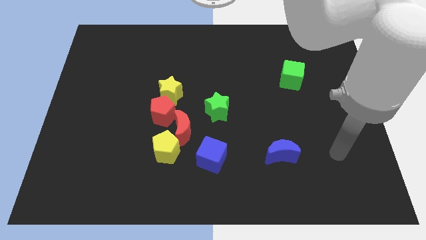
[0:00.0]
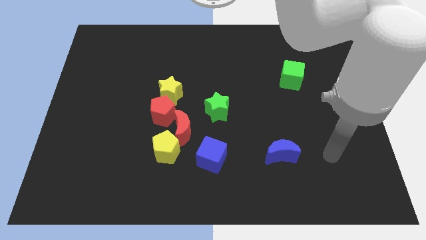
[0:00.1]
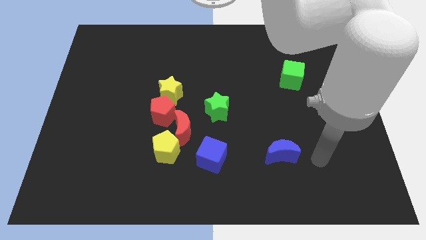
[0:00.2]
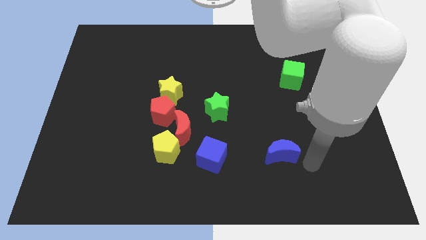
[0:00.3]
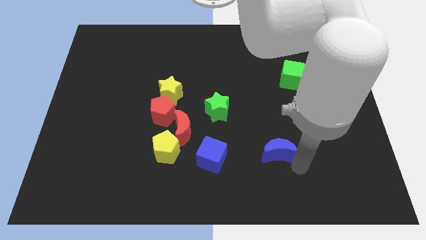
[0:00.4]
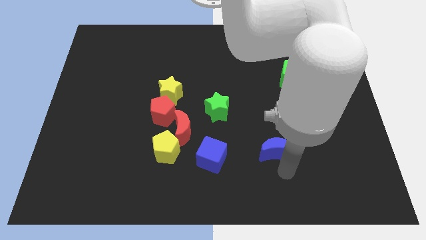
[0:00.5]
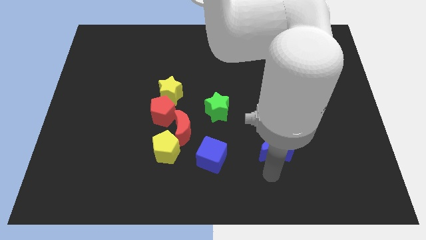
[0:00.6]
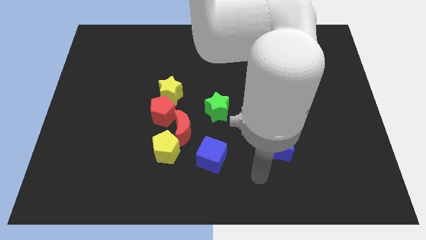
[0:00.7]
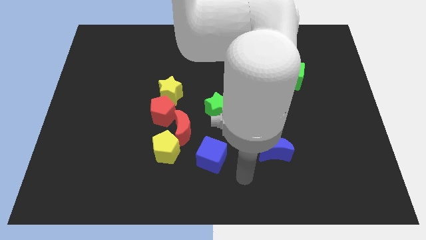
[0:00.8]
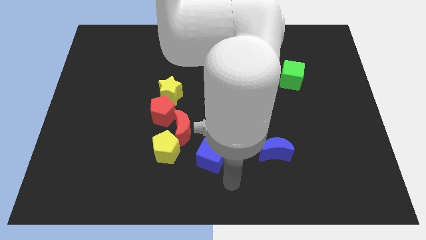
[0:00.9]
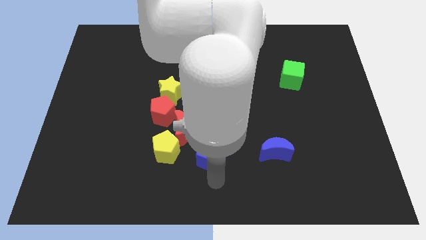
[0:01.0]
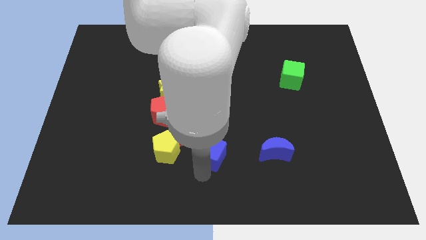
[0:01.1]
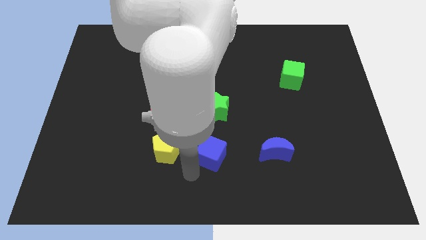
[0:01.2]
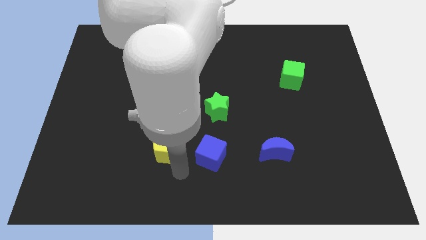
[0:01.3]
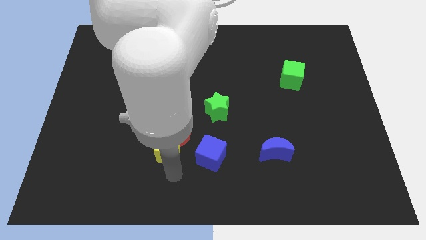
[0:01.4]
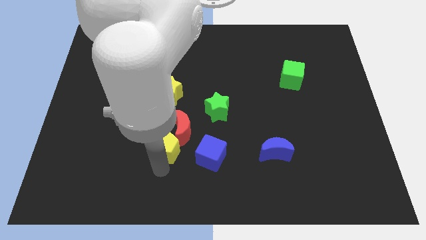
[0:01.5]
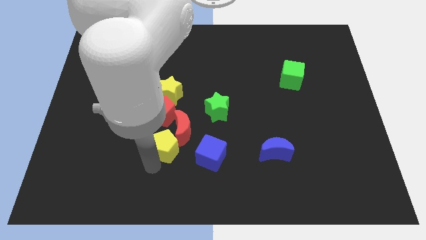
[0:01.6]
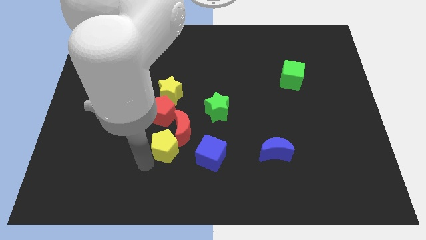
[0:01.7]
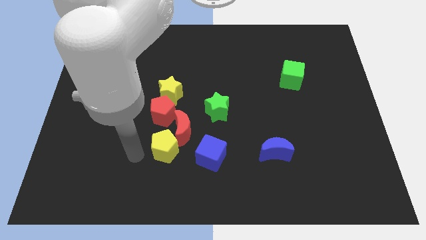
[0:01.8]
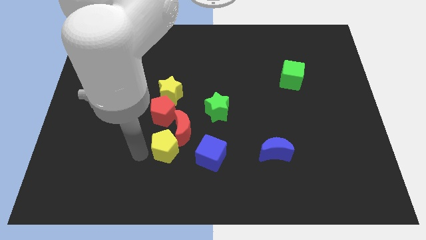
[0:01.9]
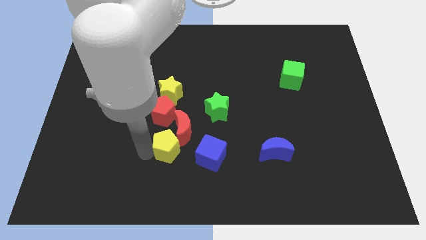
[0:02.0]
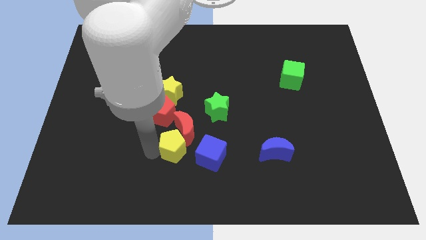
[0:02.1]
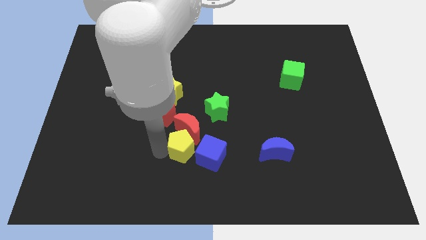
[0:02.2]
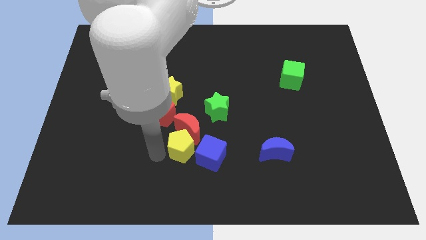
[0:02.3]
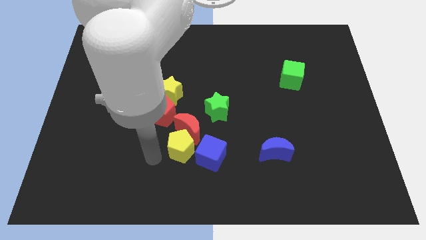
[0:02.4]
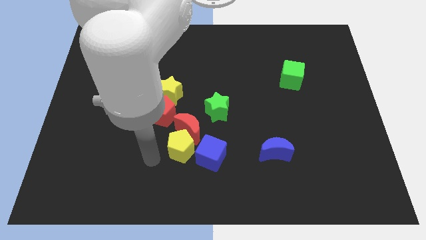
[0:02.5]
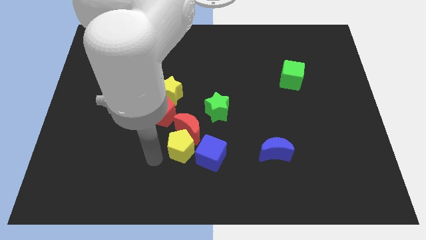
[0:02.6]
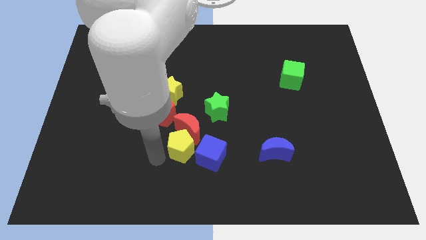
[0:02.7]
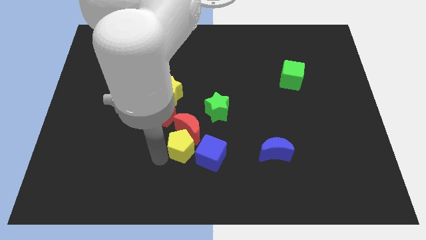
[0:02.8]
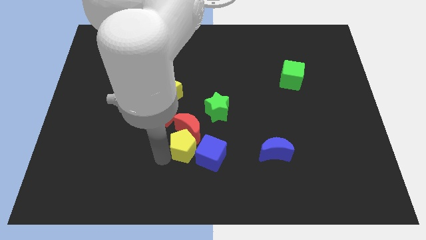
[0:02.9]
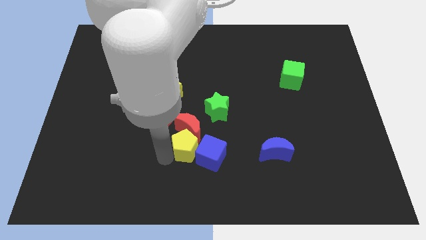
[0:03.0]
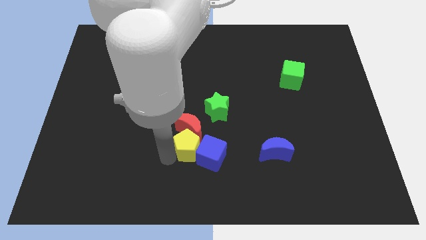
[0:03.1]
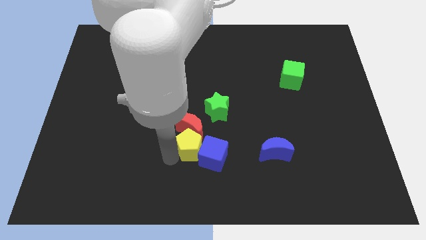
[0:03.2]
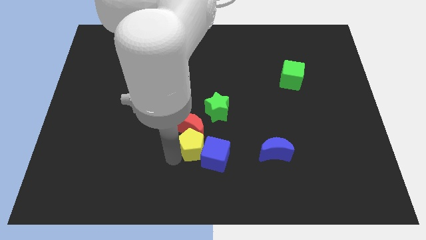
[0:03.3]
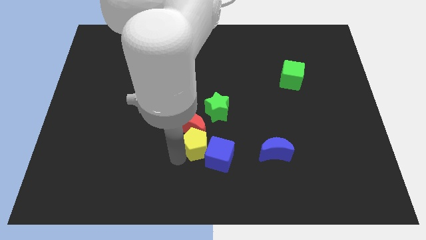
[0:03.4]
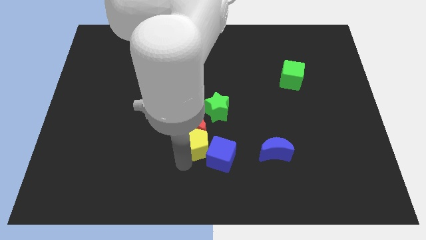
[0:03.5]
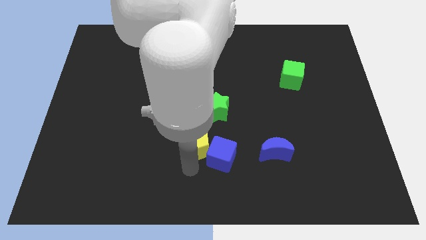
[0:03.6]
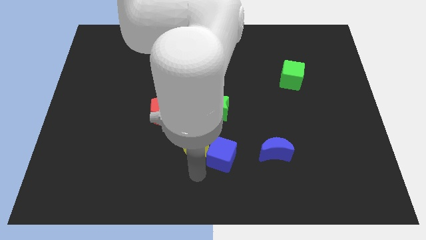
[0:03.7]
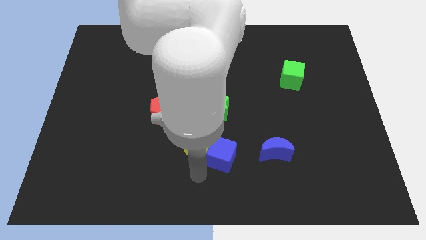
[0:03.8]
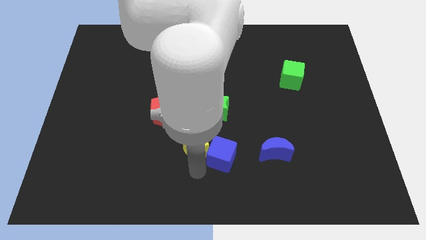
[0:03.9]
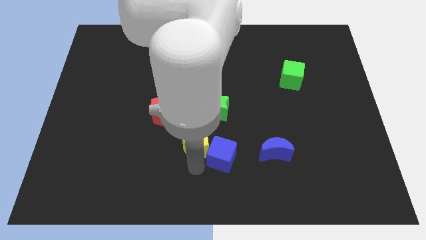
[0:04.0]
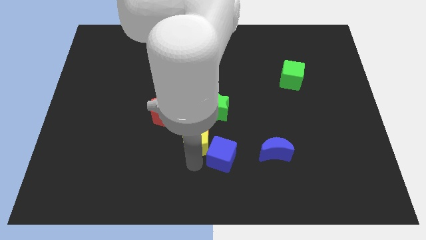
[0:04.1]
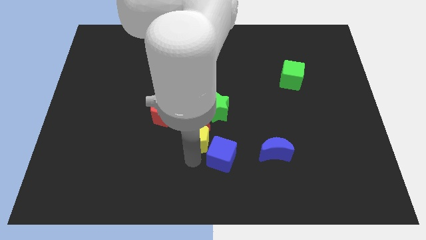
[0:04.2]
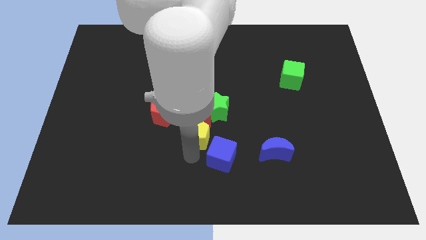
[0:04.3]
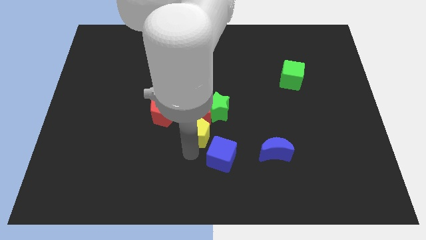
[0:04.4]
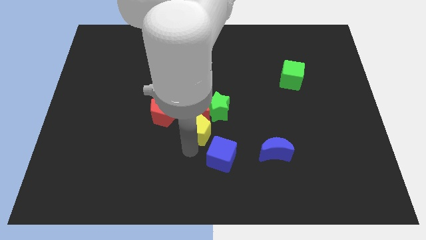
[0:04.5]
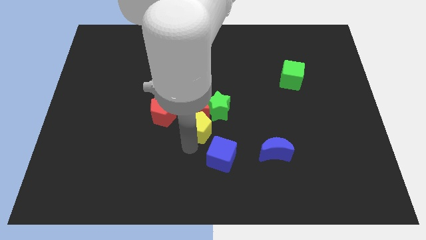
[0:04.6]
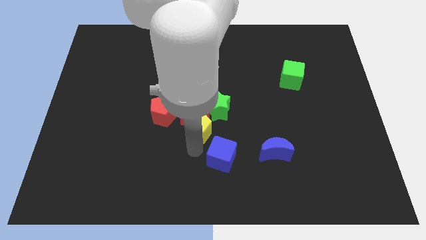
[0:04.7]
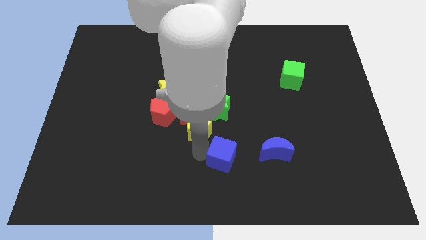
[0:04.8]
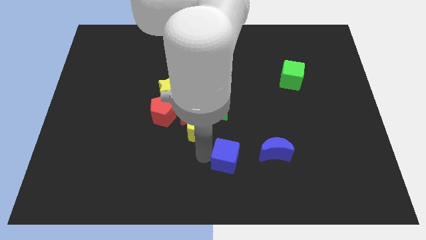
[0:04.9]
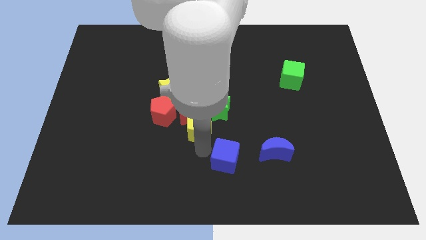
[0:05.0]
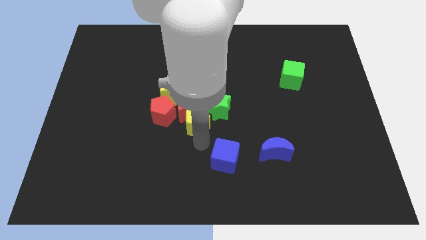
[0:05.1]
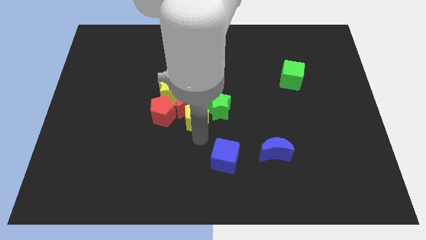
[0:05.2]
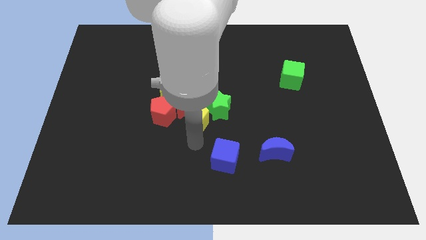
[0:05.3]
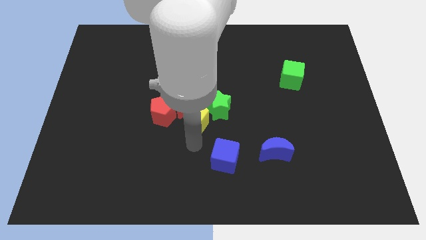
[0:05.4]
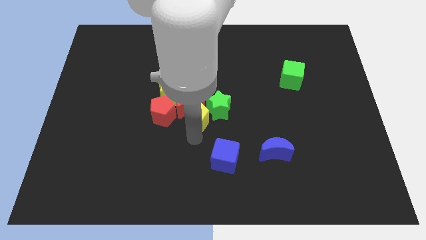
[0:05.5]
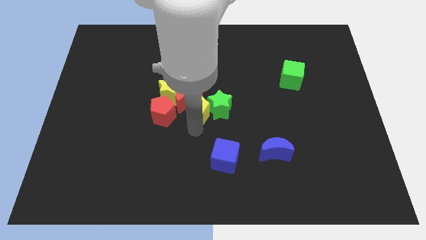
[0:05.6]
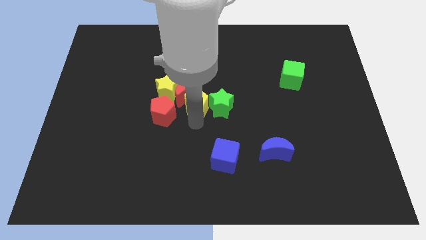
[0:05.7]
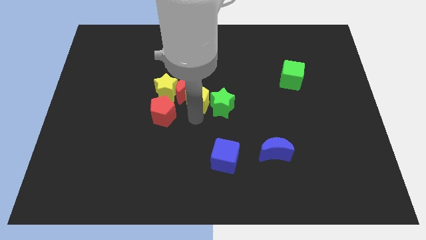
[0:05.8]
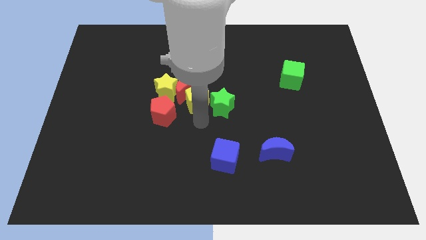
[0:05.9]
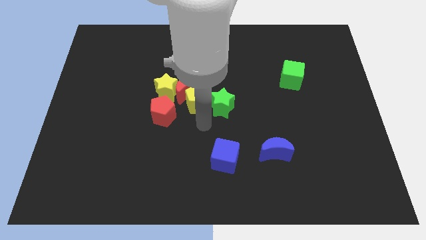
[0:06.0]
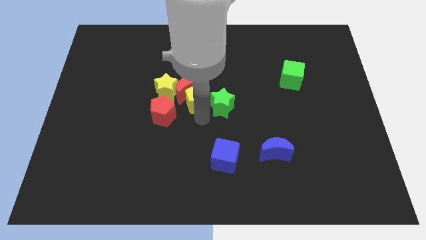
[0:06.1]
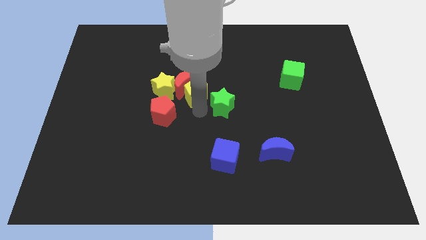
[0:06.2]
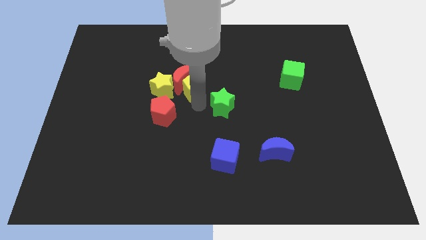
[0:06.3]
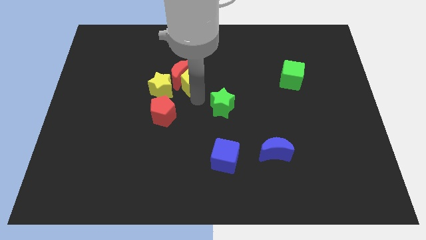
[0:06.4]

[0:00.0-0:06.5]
push the yellow pentagon to the top right side of the yellow star

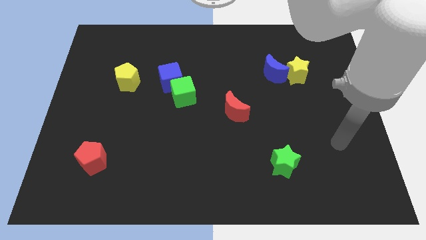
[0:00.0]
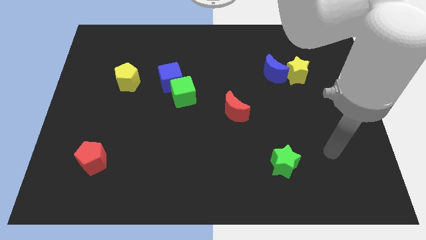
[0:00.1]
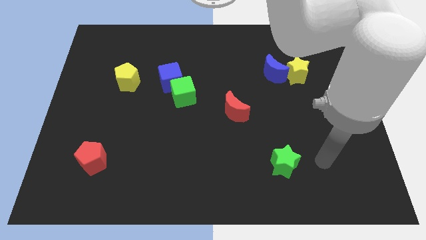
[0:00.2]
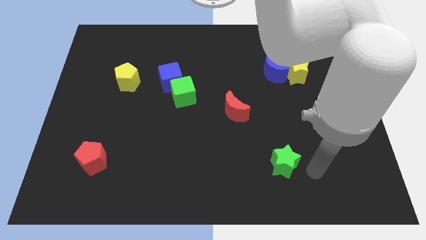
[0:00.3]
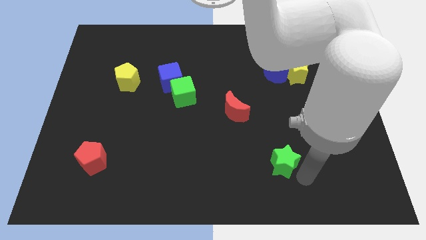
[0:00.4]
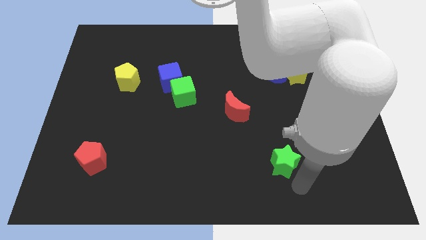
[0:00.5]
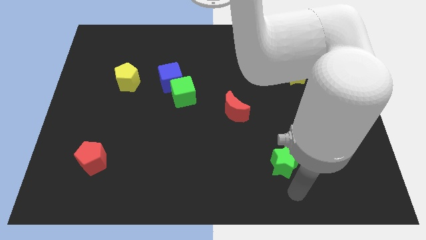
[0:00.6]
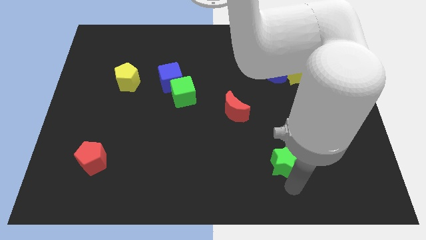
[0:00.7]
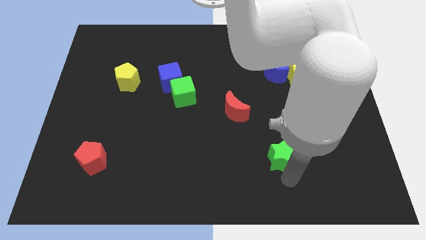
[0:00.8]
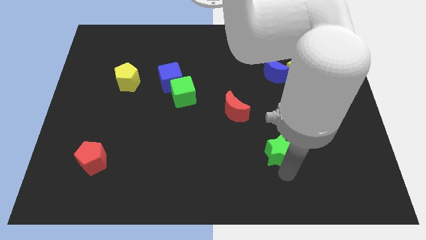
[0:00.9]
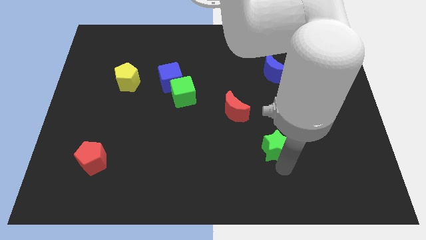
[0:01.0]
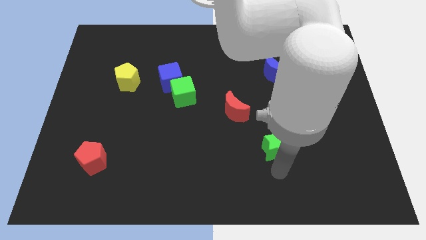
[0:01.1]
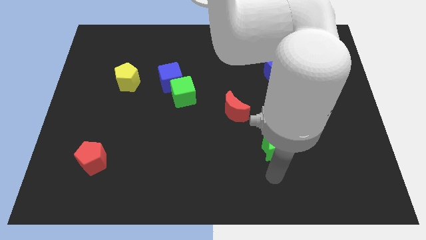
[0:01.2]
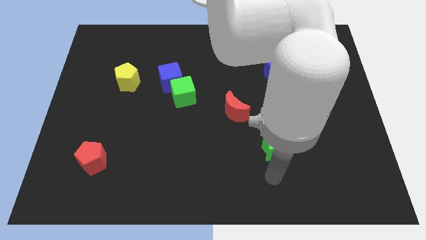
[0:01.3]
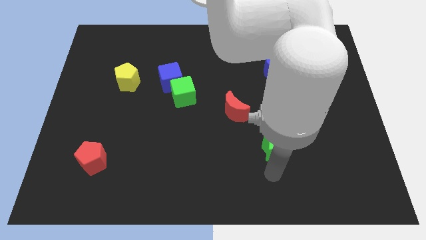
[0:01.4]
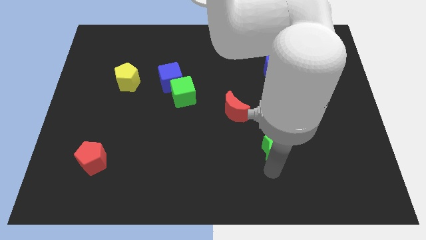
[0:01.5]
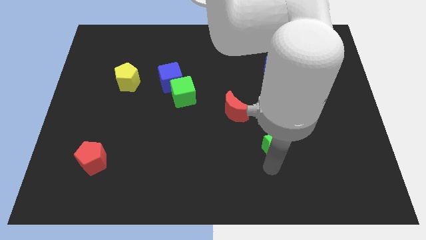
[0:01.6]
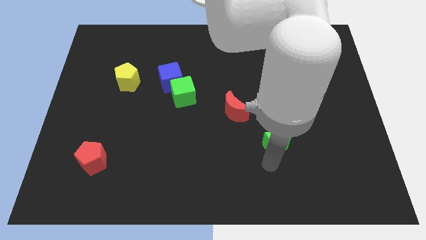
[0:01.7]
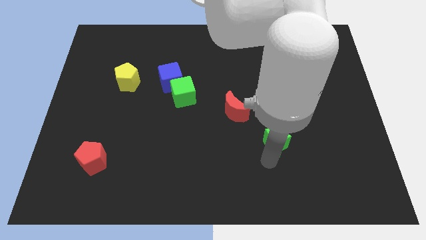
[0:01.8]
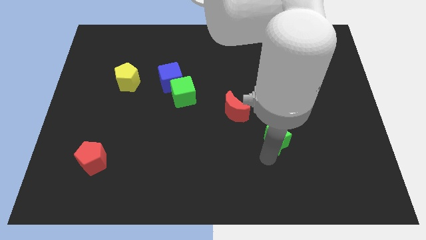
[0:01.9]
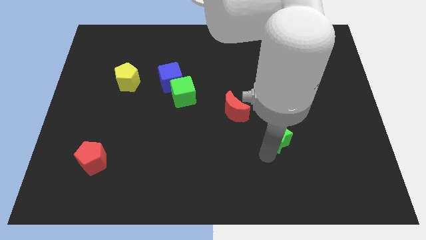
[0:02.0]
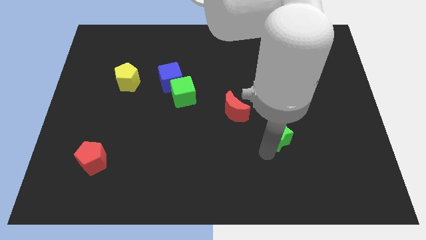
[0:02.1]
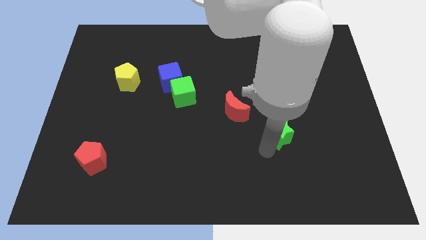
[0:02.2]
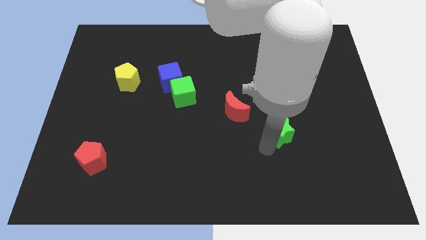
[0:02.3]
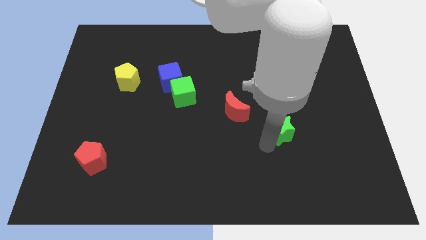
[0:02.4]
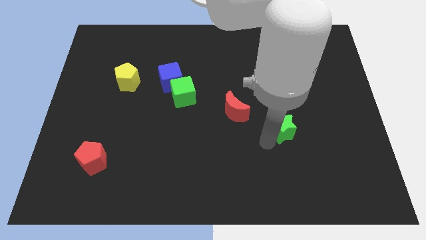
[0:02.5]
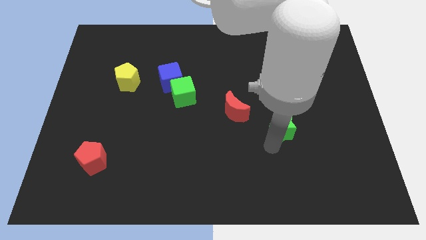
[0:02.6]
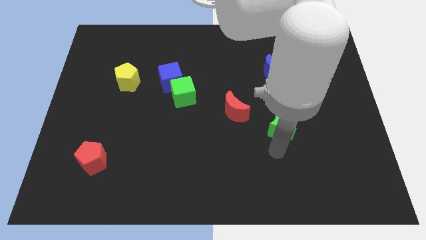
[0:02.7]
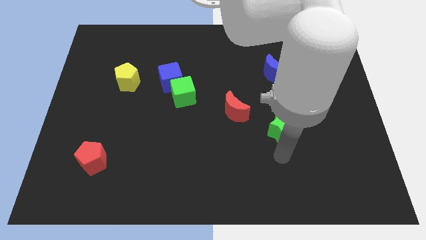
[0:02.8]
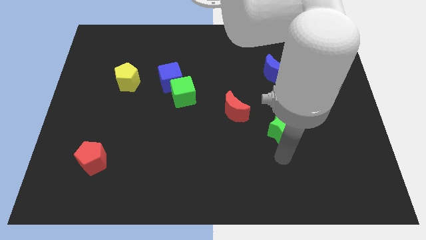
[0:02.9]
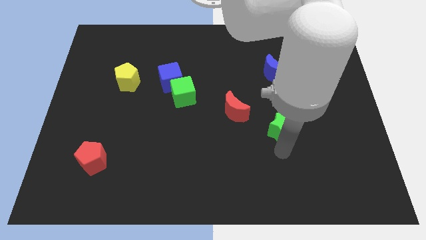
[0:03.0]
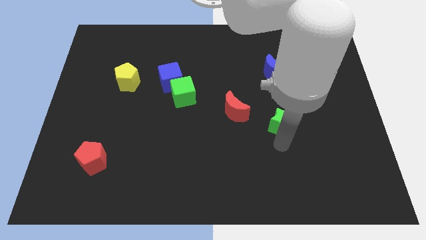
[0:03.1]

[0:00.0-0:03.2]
move the green star to the right of the red moon
